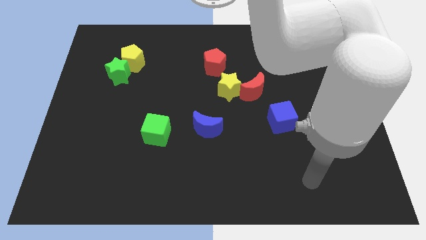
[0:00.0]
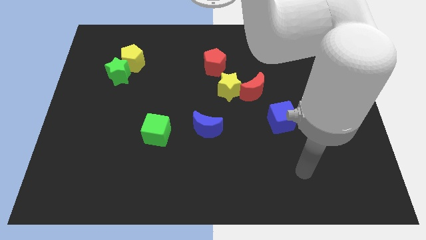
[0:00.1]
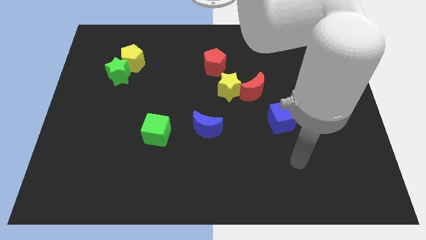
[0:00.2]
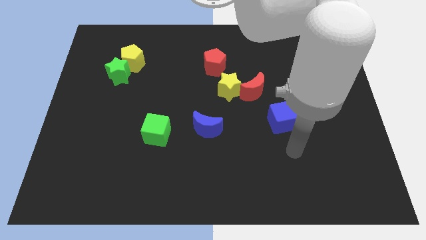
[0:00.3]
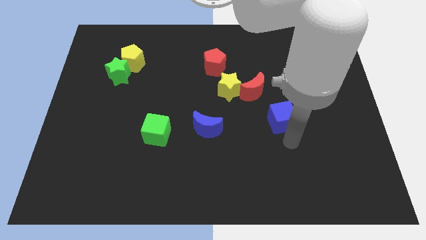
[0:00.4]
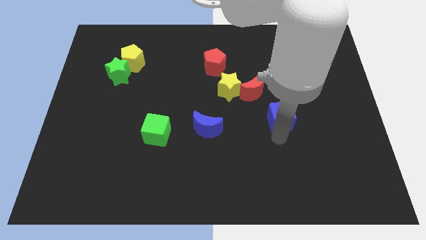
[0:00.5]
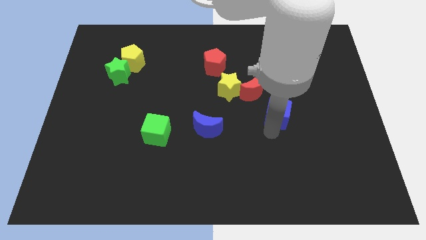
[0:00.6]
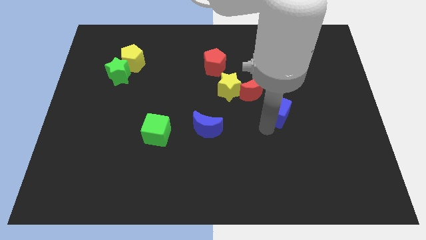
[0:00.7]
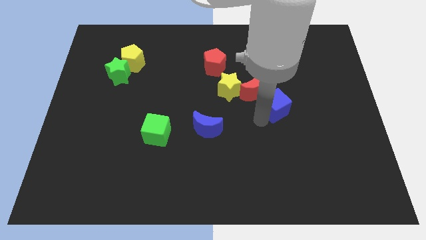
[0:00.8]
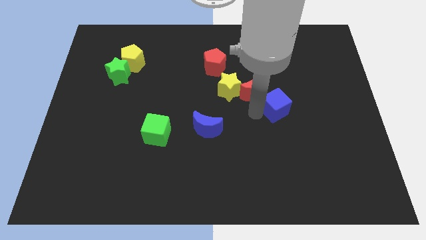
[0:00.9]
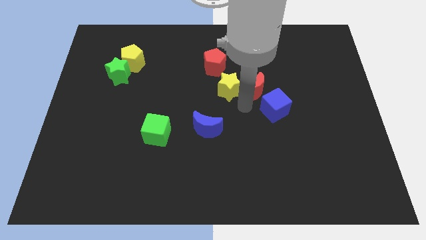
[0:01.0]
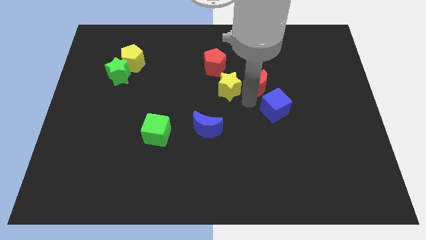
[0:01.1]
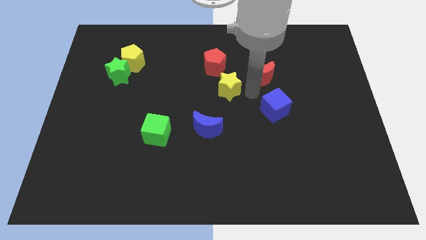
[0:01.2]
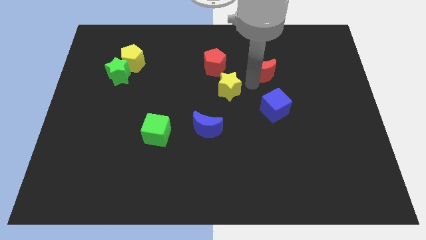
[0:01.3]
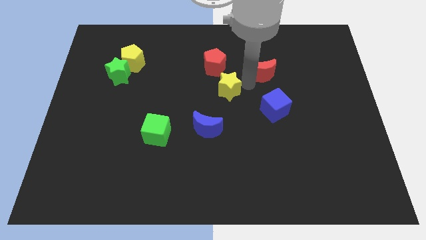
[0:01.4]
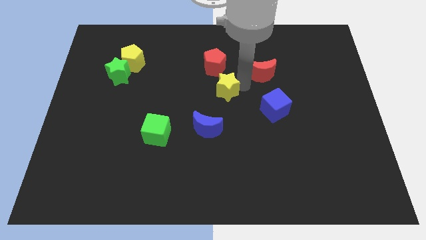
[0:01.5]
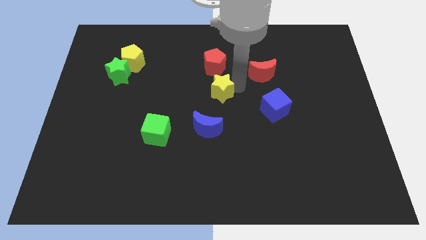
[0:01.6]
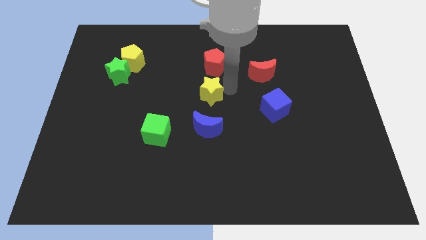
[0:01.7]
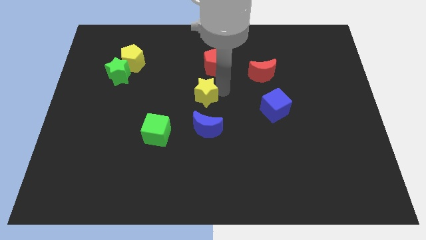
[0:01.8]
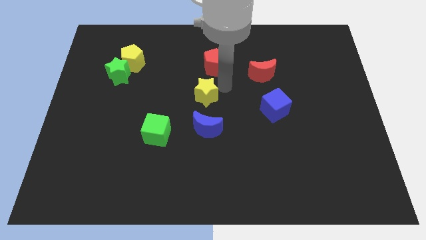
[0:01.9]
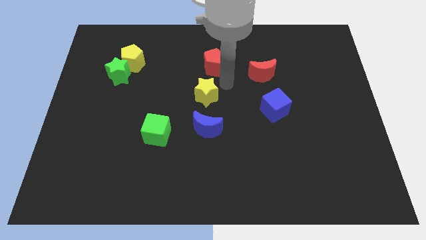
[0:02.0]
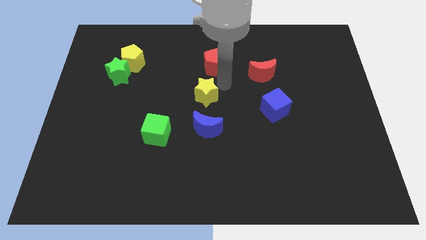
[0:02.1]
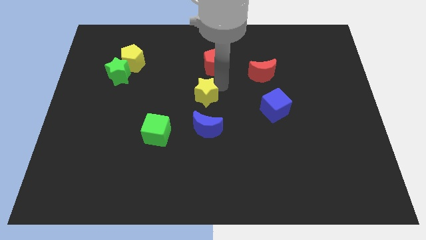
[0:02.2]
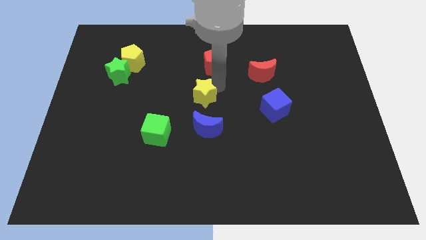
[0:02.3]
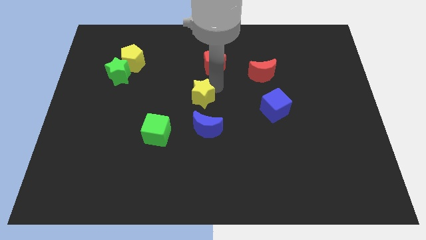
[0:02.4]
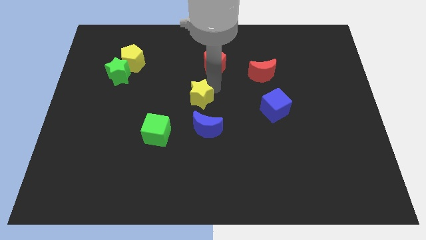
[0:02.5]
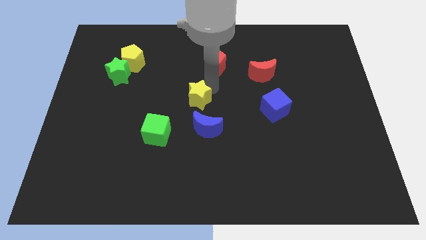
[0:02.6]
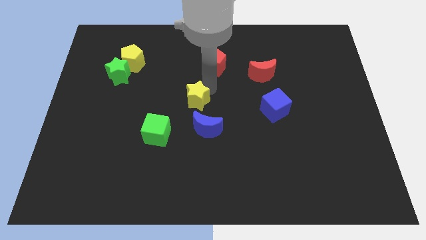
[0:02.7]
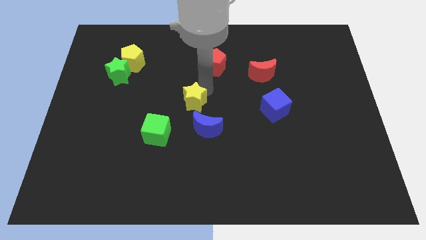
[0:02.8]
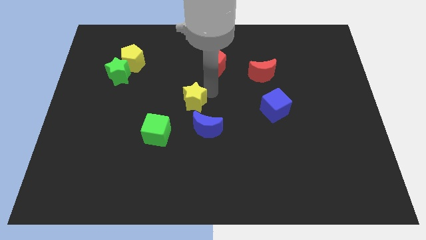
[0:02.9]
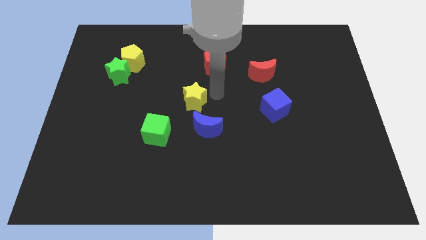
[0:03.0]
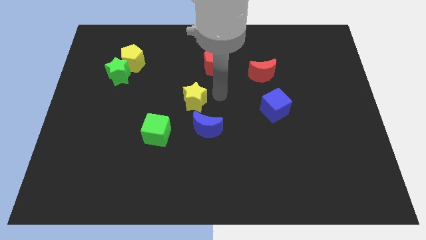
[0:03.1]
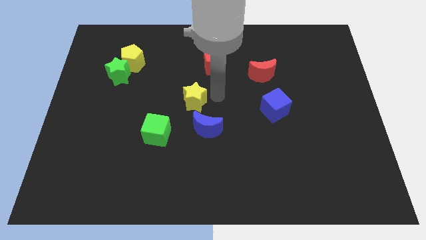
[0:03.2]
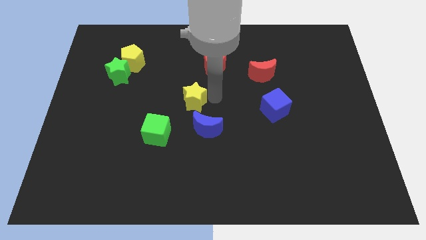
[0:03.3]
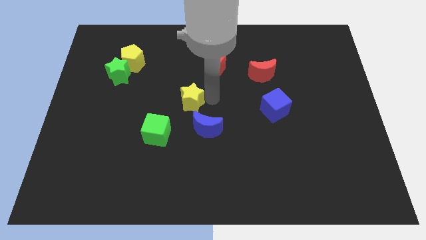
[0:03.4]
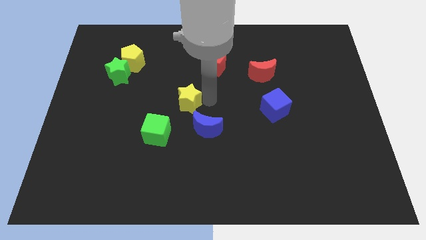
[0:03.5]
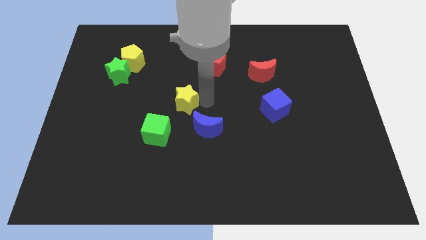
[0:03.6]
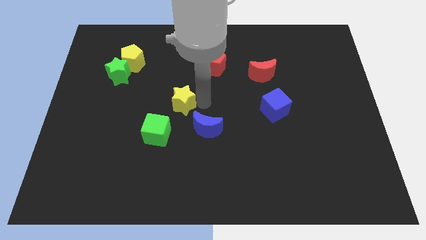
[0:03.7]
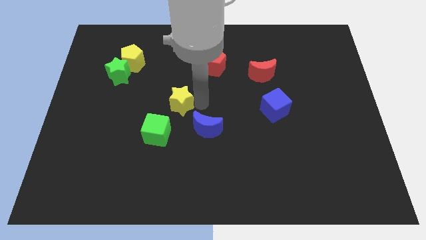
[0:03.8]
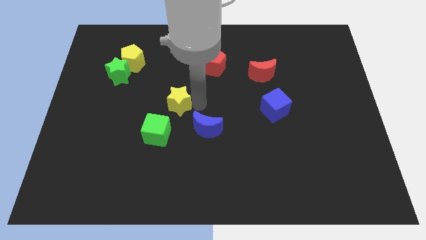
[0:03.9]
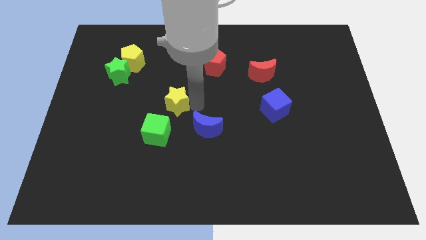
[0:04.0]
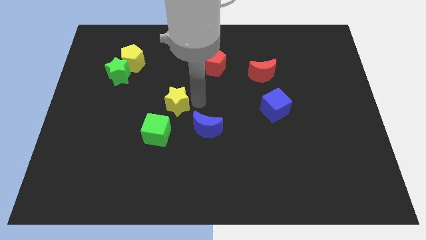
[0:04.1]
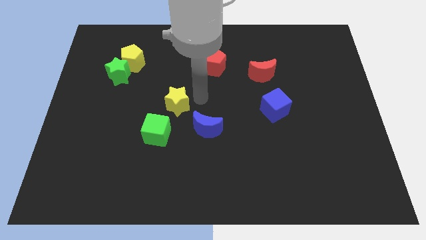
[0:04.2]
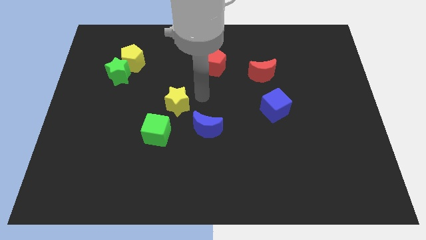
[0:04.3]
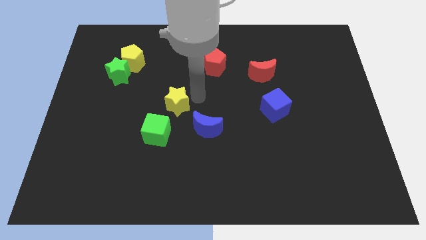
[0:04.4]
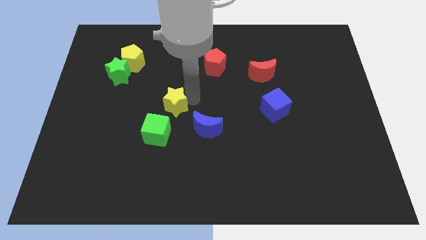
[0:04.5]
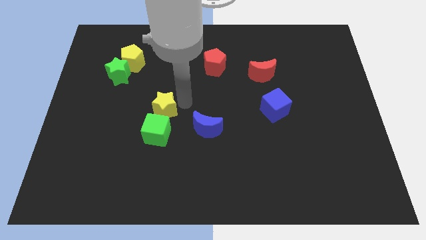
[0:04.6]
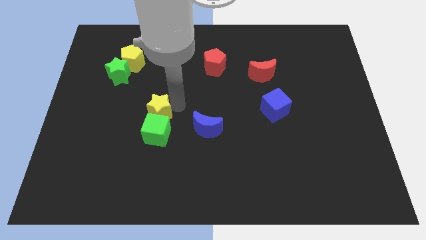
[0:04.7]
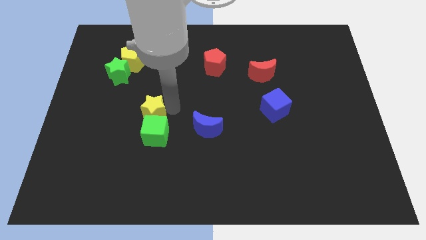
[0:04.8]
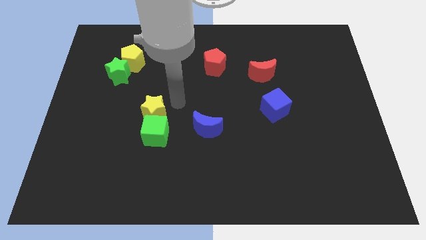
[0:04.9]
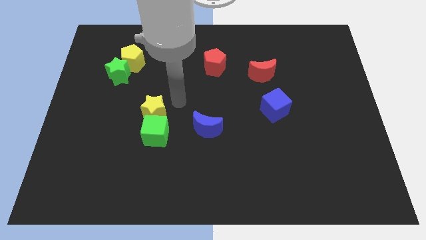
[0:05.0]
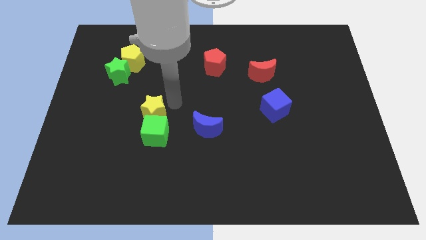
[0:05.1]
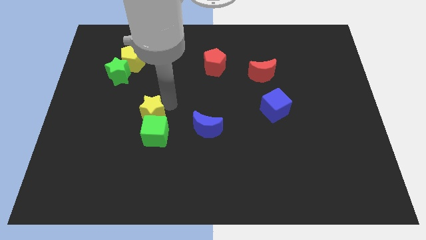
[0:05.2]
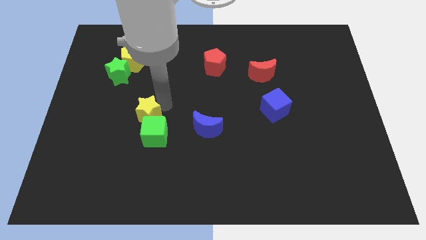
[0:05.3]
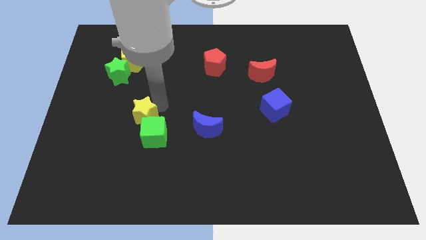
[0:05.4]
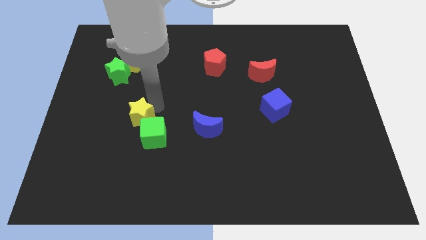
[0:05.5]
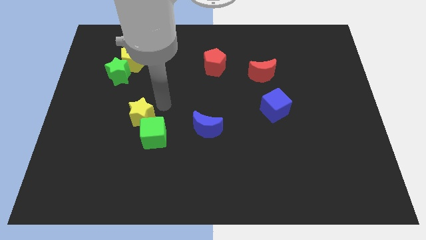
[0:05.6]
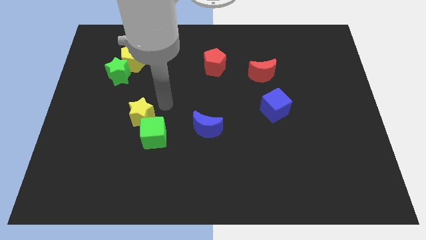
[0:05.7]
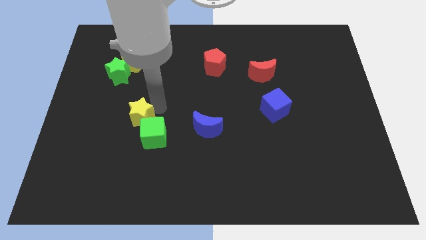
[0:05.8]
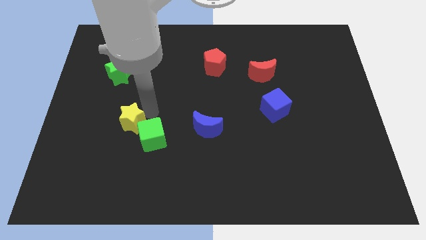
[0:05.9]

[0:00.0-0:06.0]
put the yellow star just left of the green cube

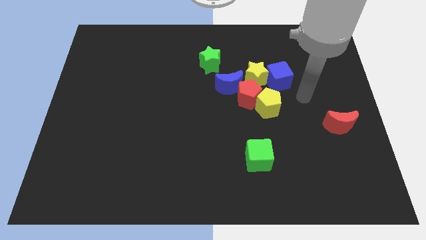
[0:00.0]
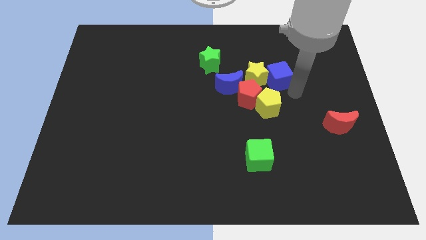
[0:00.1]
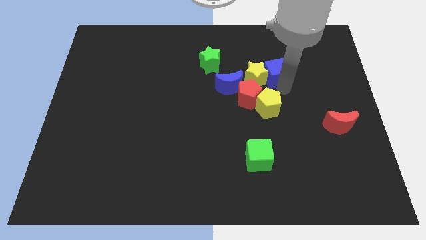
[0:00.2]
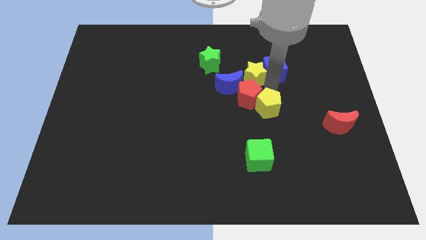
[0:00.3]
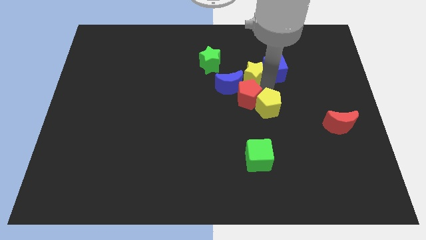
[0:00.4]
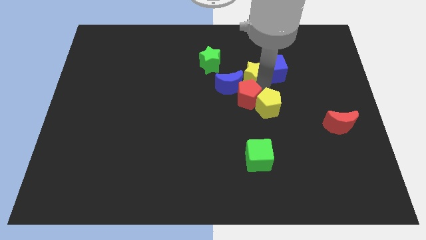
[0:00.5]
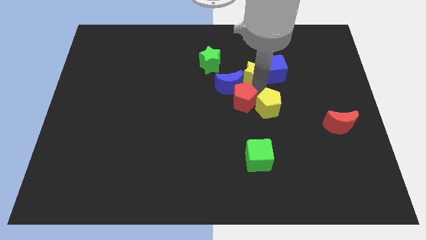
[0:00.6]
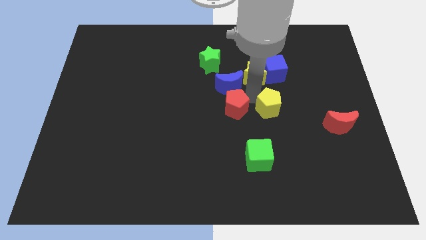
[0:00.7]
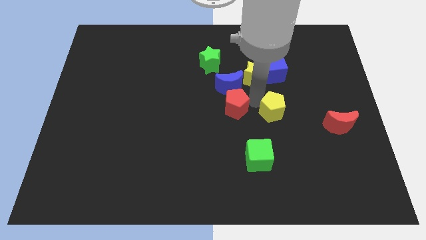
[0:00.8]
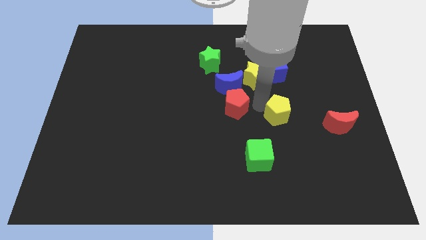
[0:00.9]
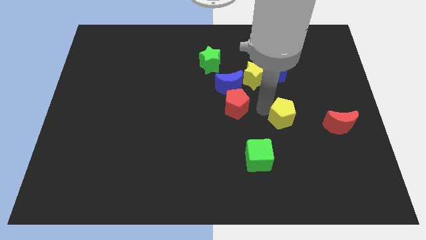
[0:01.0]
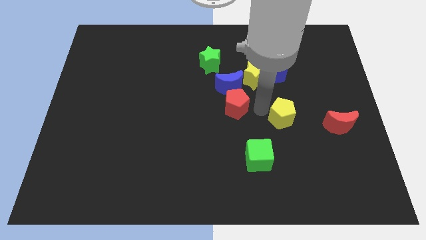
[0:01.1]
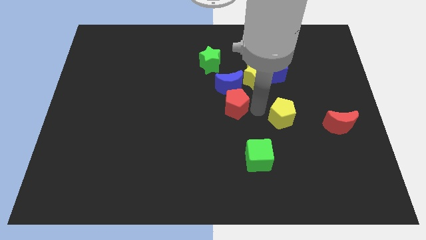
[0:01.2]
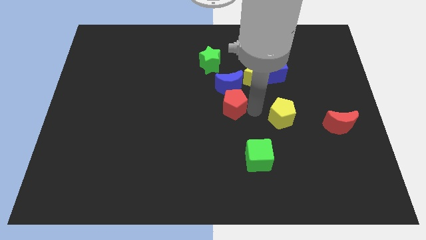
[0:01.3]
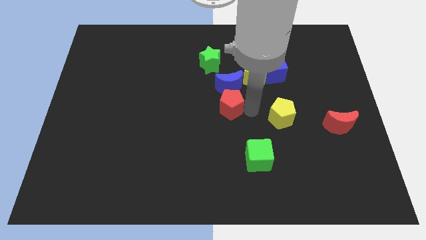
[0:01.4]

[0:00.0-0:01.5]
push the red pentagon to the bottom left side of the blue moon
